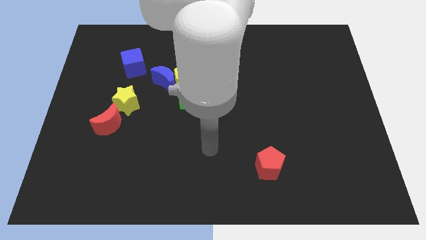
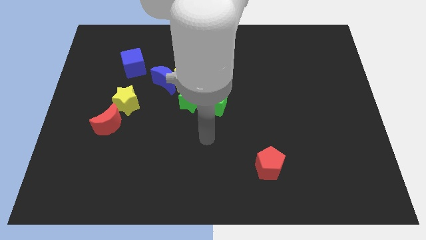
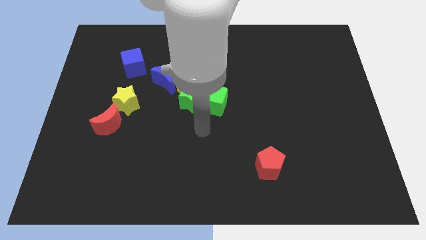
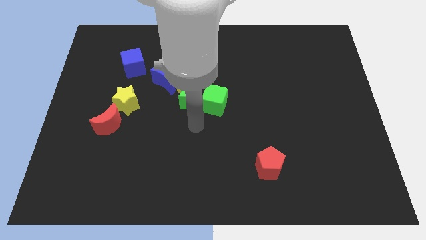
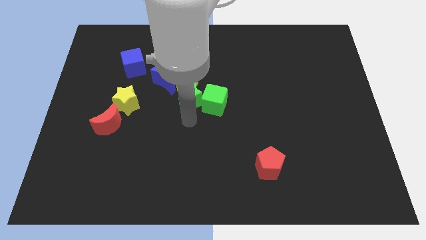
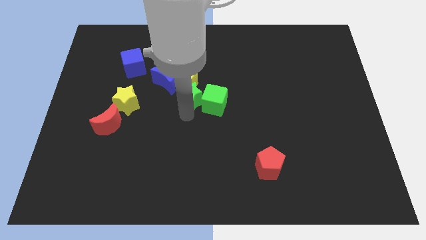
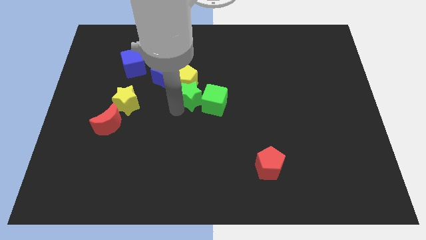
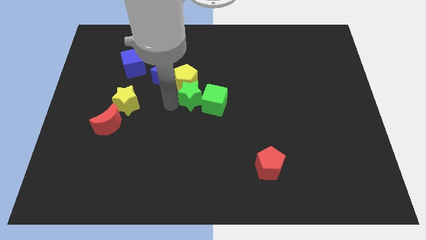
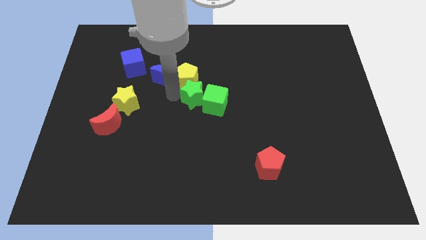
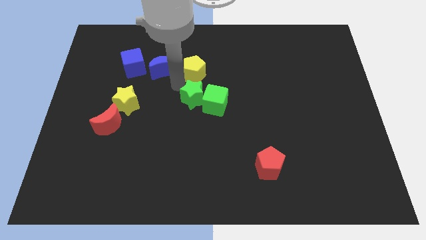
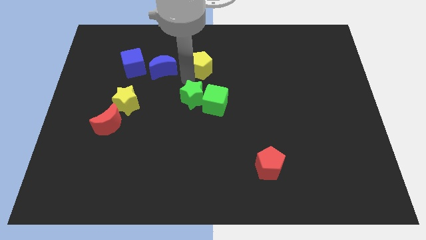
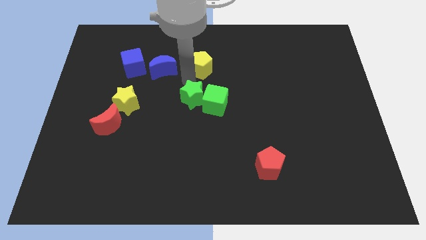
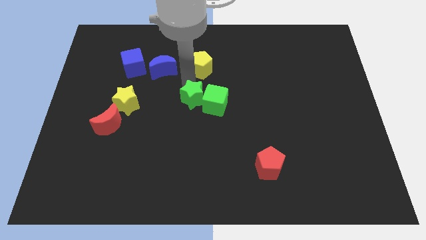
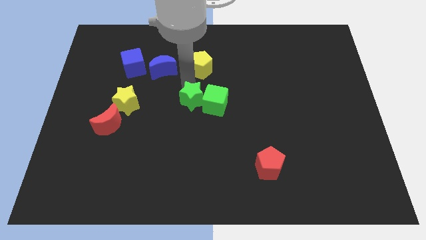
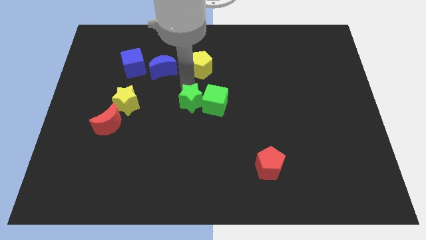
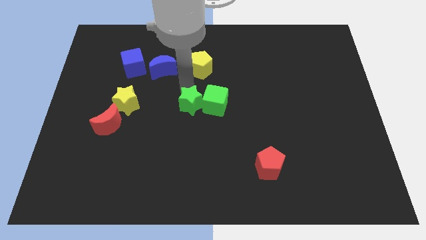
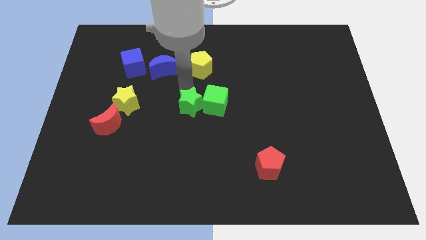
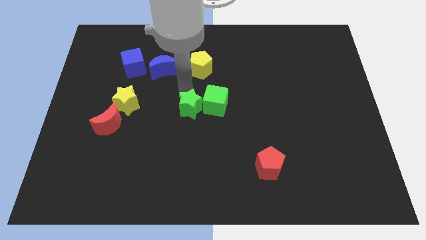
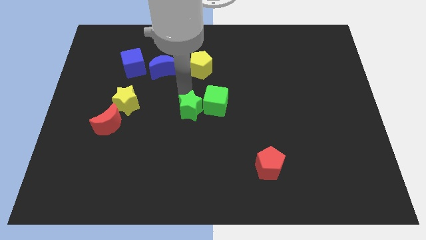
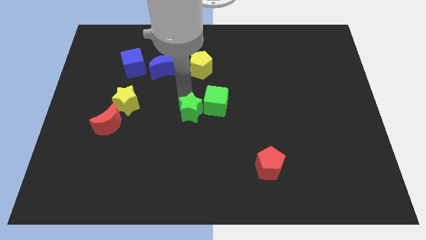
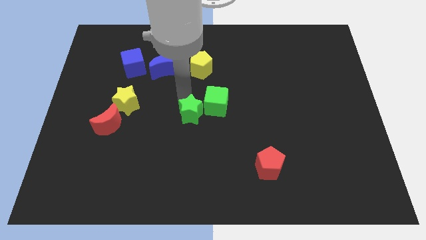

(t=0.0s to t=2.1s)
pull the green star apart from the group of blocks

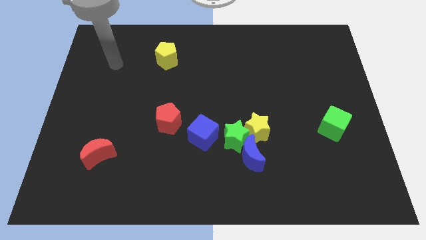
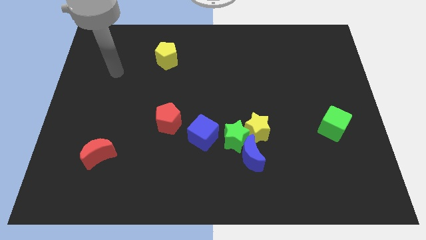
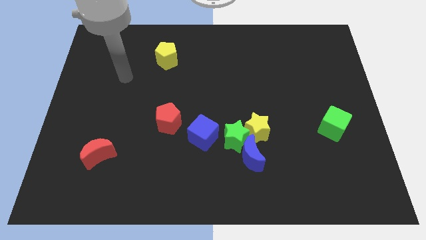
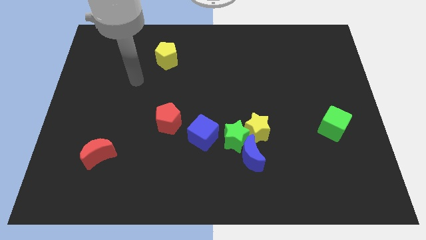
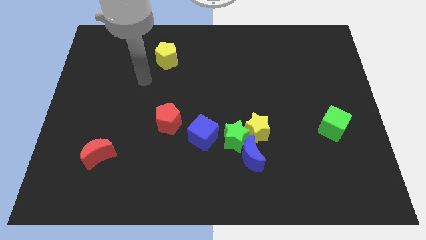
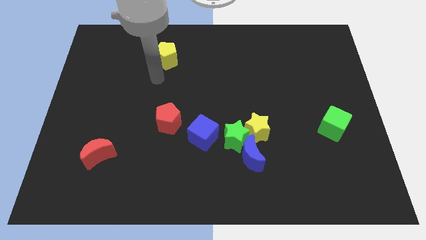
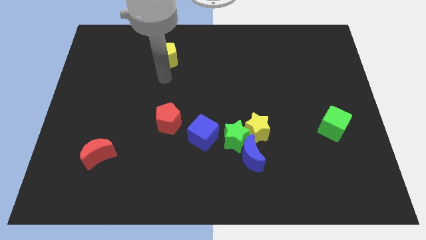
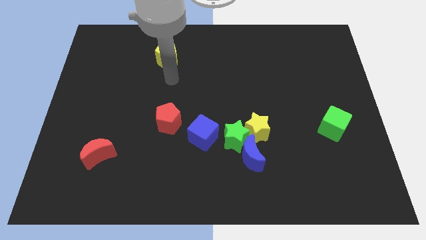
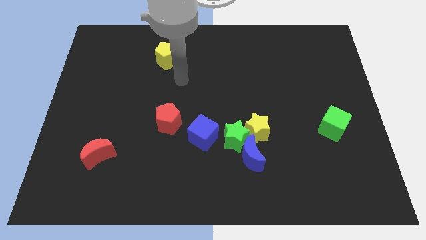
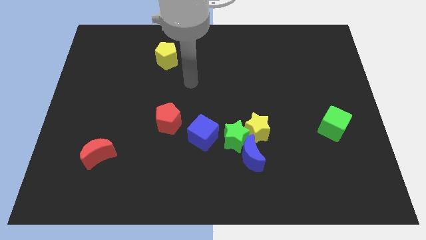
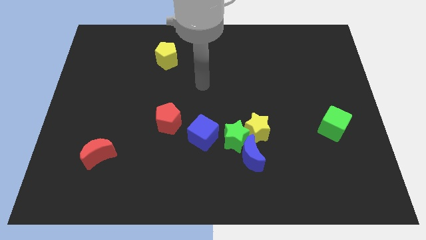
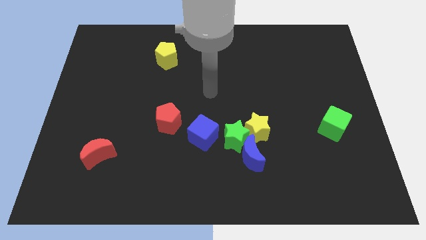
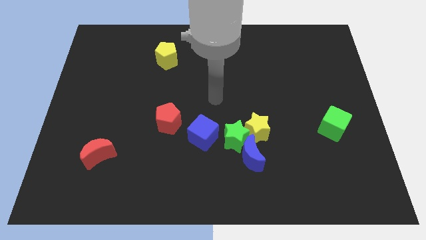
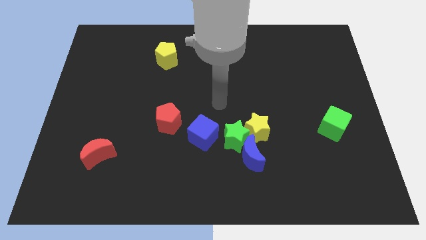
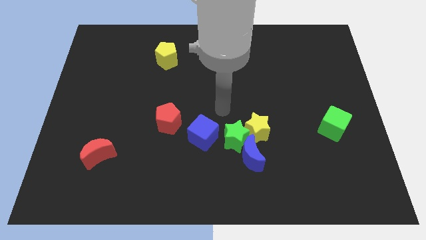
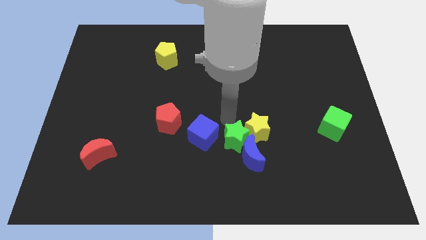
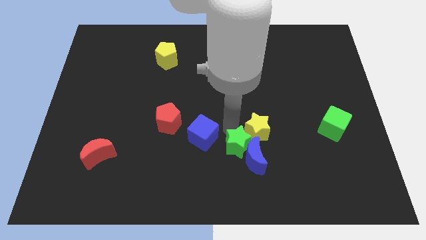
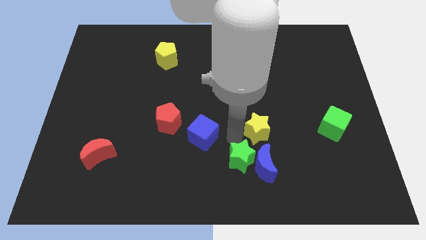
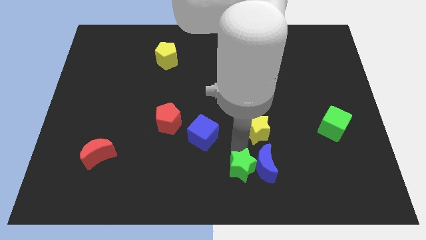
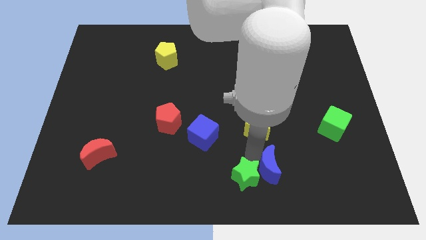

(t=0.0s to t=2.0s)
separate the yellow star from the green star and blue moon

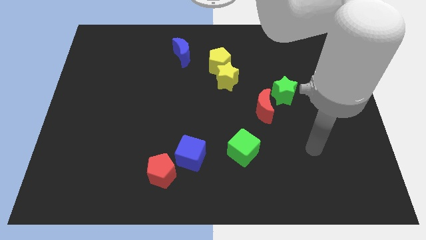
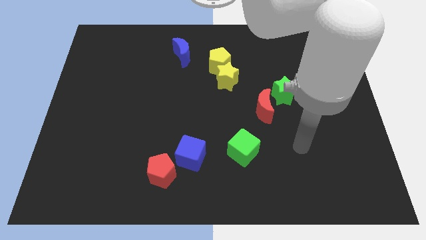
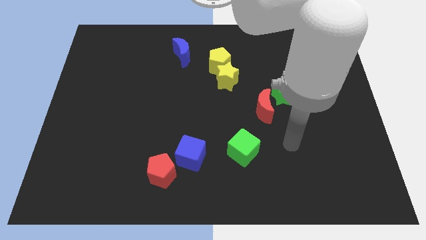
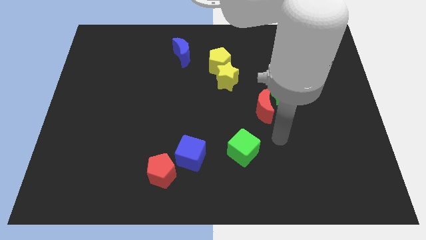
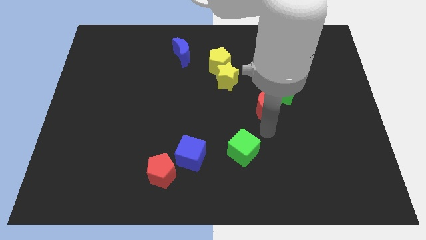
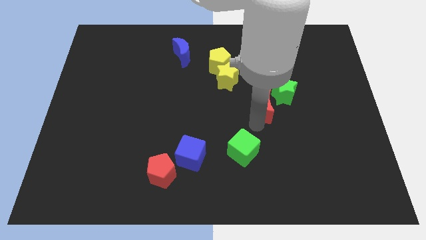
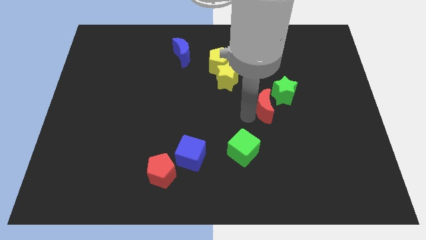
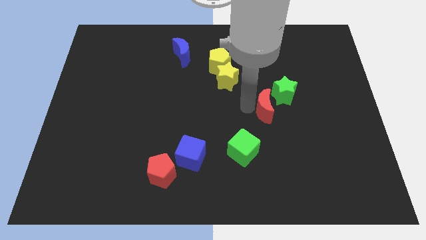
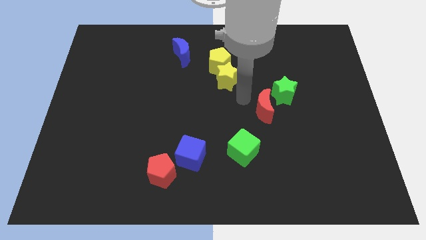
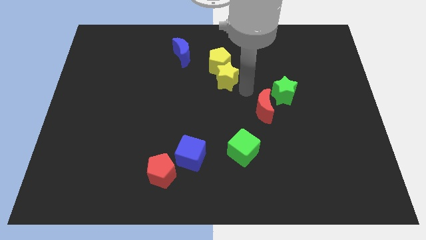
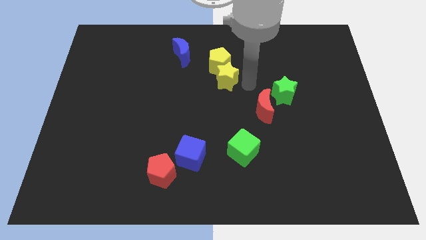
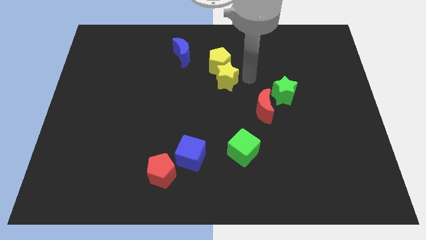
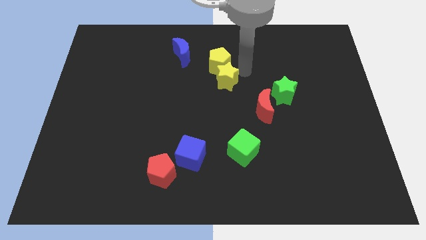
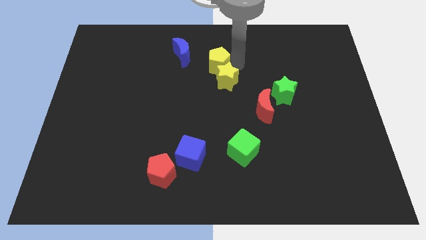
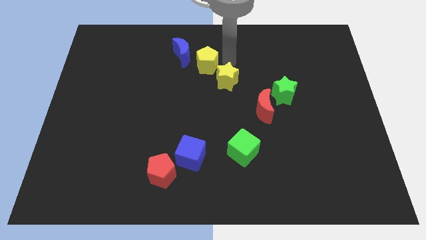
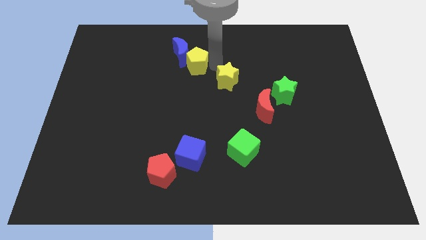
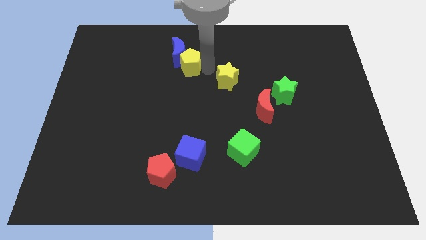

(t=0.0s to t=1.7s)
move the yellow star away from the yellow pentagon

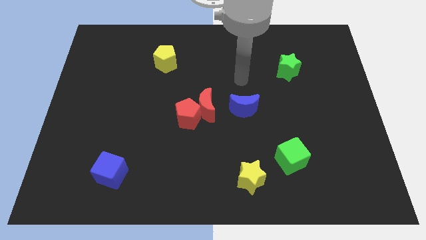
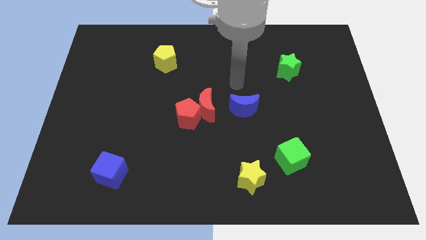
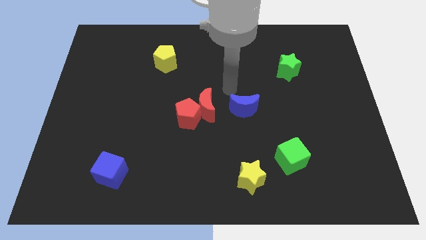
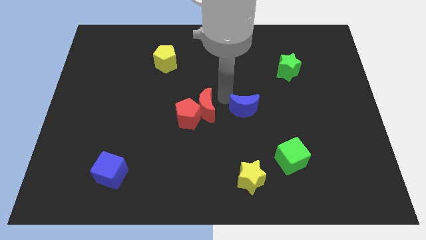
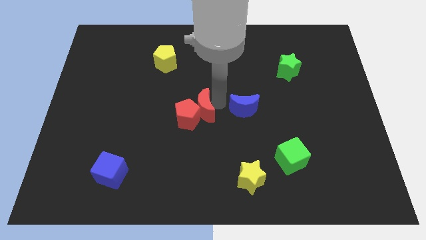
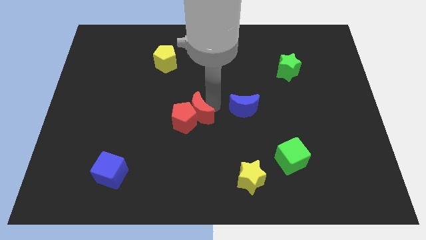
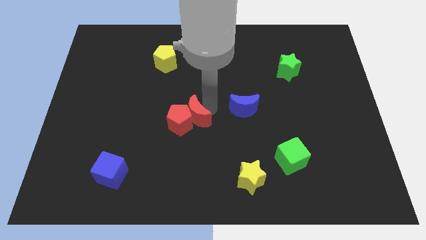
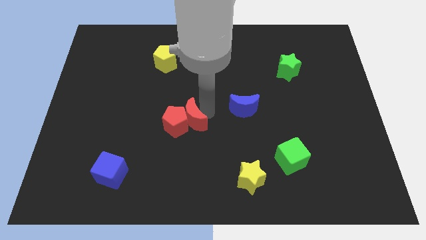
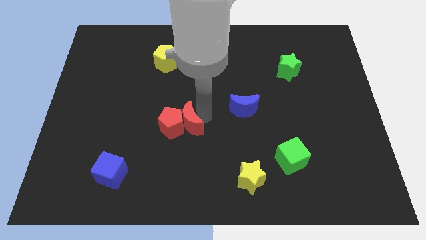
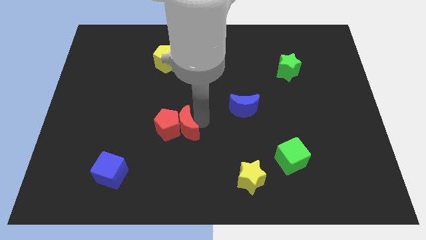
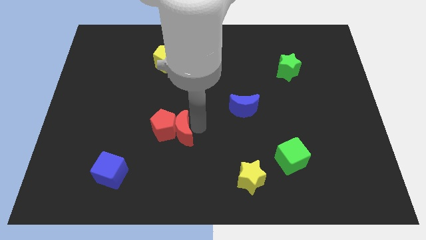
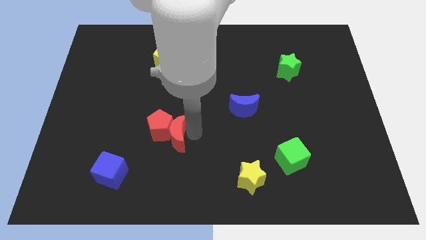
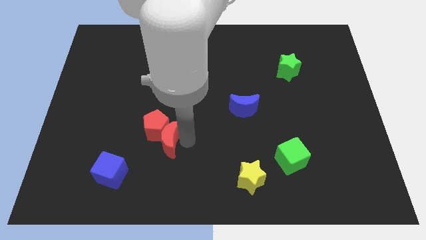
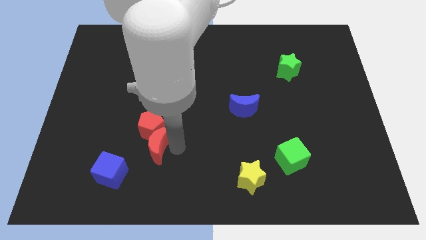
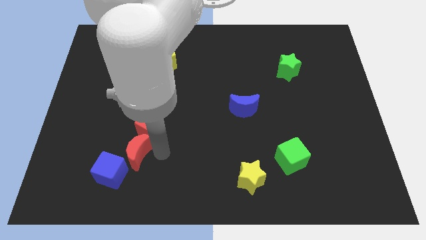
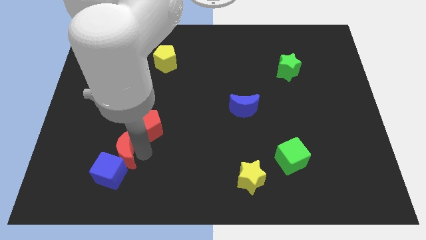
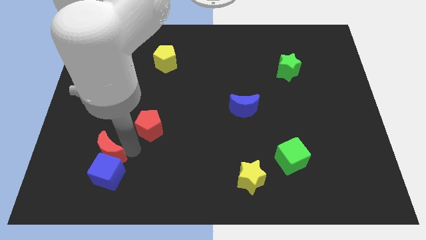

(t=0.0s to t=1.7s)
pull the red pentagon apart from the red moon

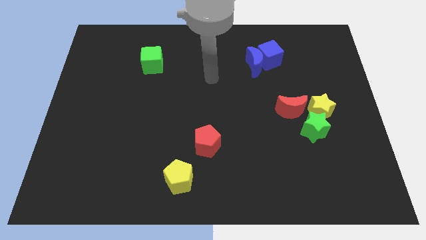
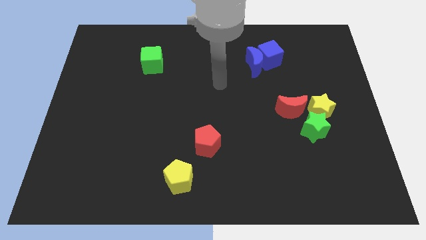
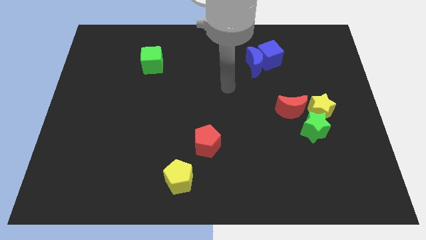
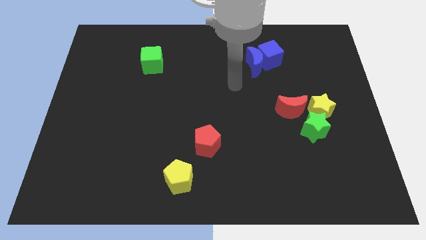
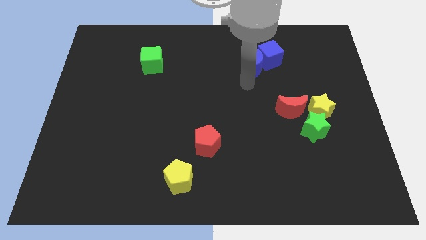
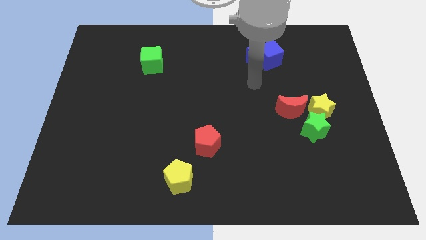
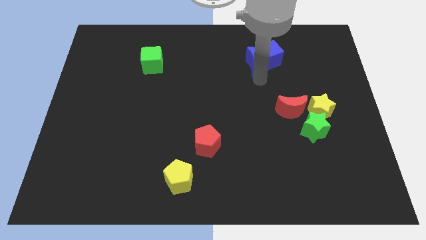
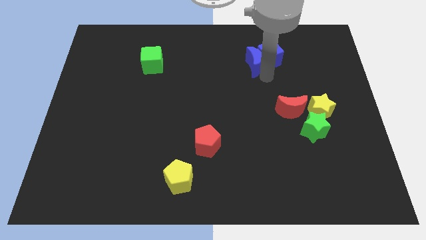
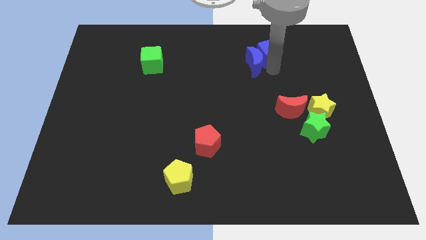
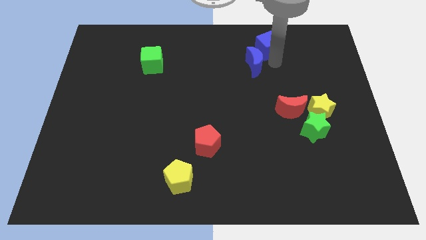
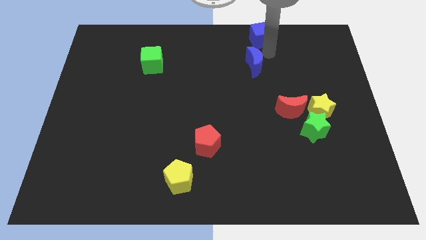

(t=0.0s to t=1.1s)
pull the blue moon apart from the blue cube

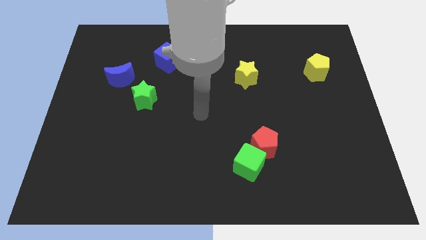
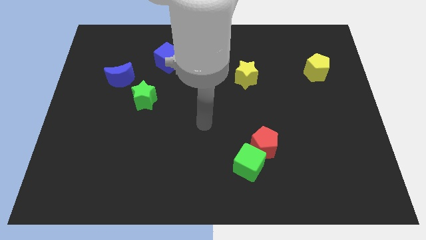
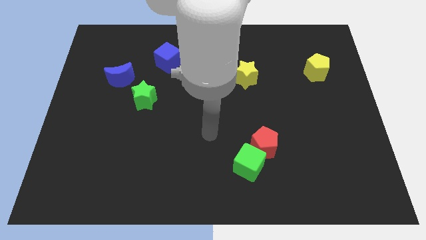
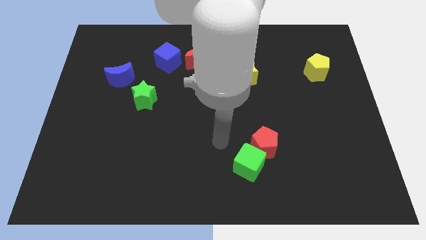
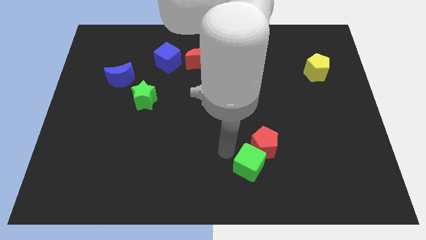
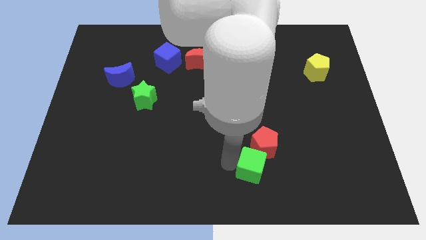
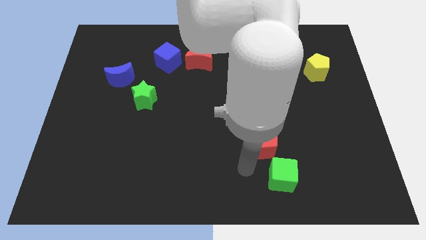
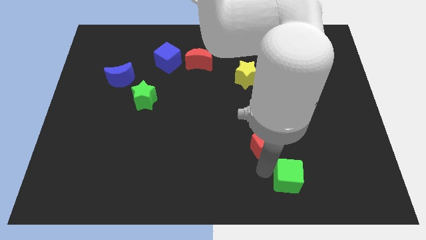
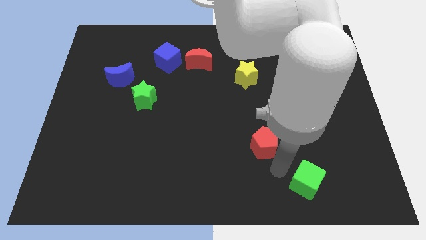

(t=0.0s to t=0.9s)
pull the red pentagon apart from the green cube
